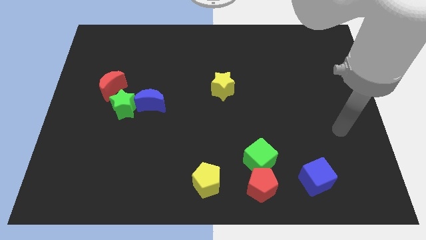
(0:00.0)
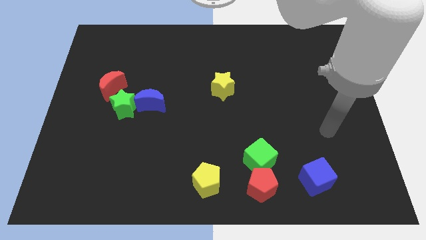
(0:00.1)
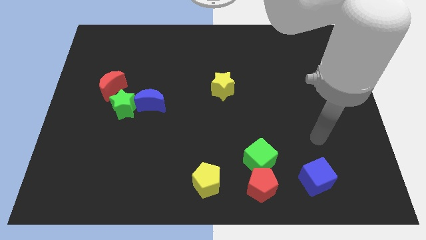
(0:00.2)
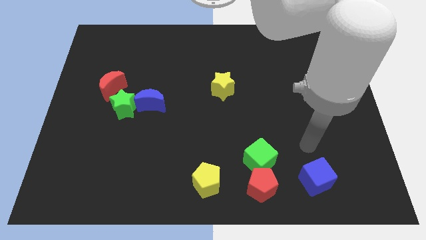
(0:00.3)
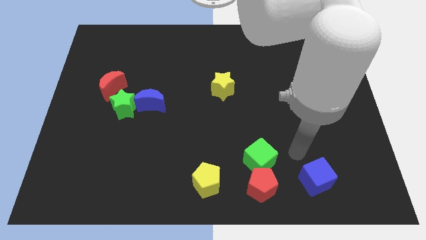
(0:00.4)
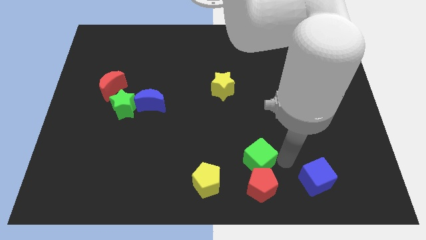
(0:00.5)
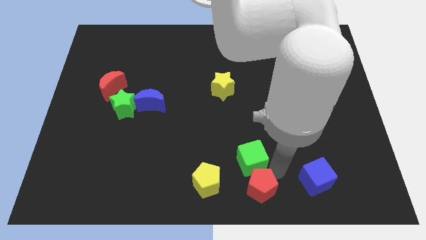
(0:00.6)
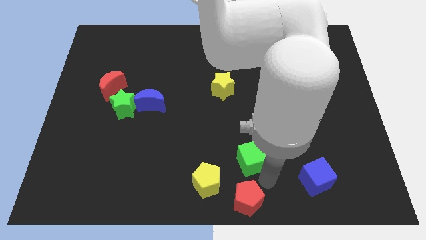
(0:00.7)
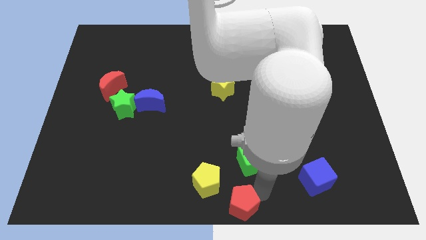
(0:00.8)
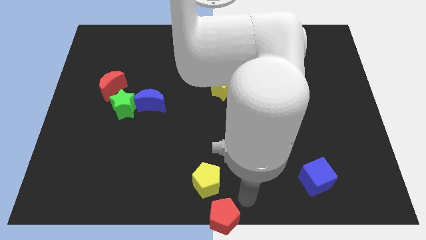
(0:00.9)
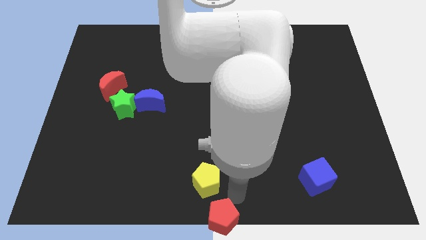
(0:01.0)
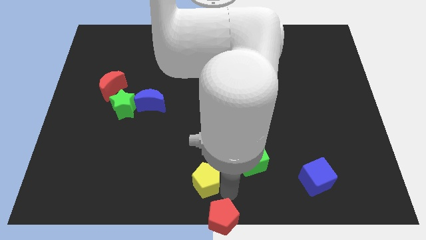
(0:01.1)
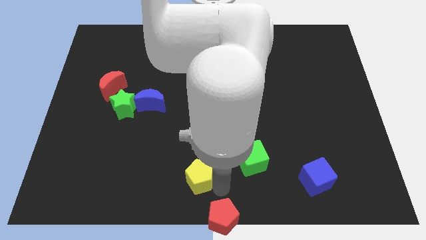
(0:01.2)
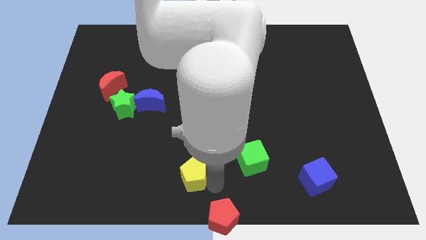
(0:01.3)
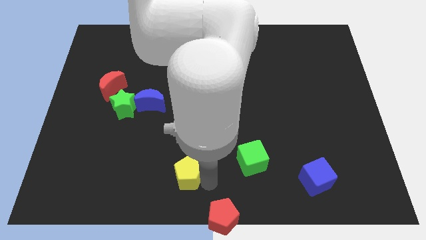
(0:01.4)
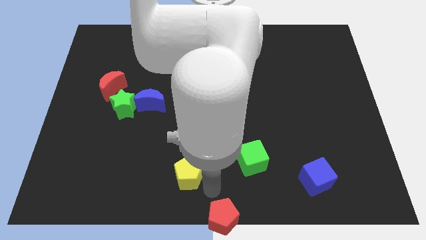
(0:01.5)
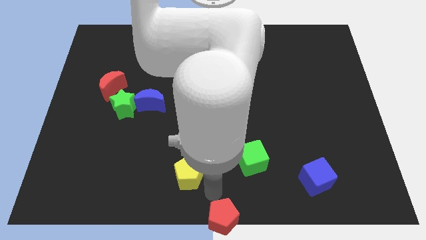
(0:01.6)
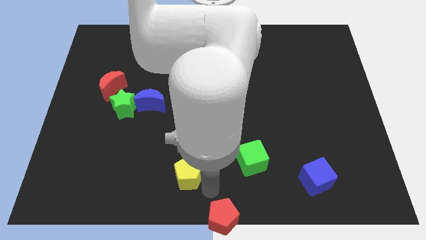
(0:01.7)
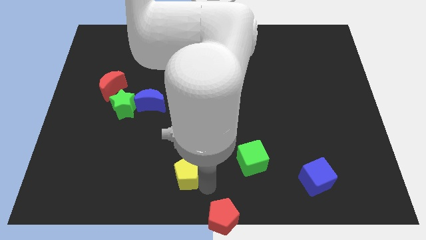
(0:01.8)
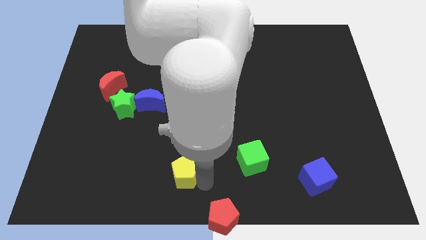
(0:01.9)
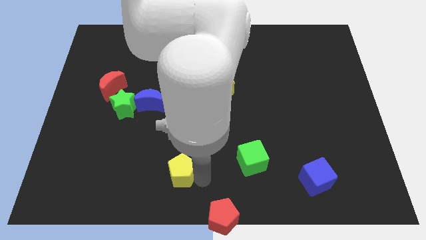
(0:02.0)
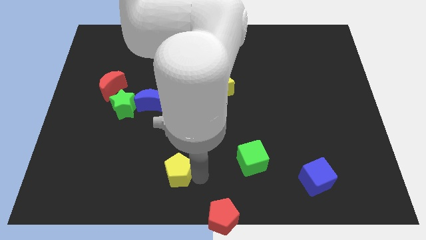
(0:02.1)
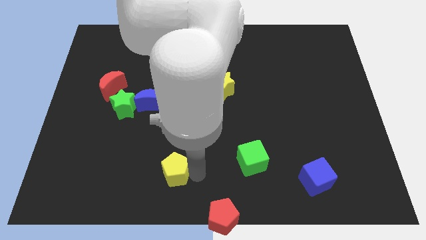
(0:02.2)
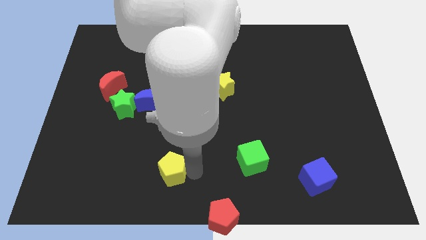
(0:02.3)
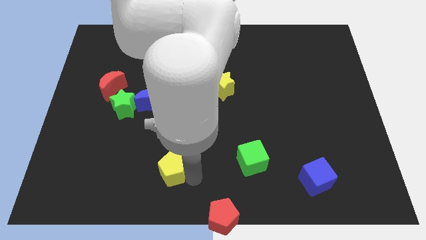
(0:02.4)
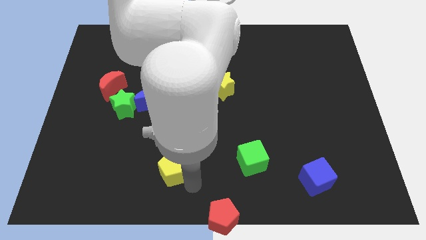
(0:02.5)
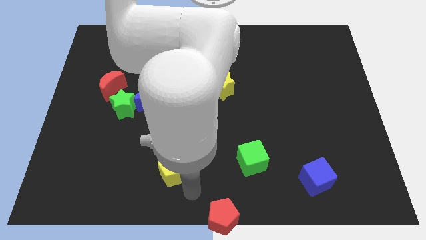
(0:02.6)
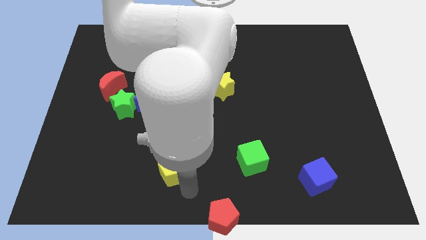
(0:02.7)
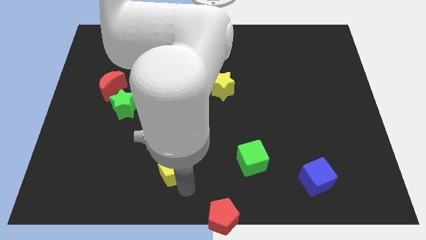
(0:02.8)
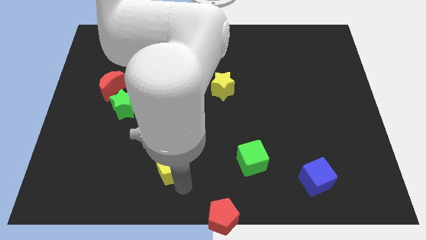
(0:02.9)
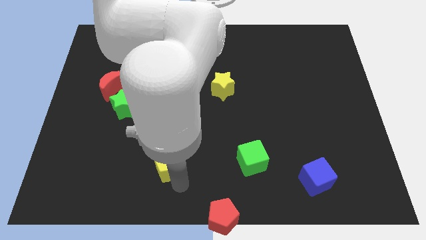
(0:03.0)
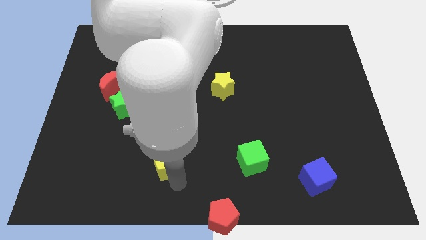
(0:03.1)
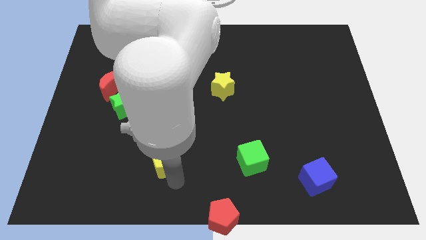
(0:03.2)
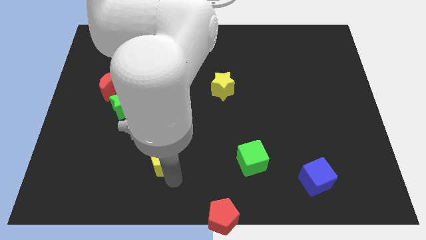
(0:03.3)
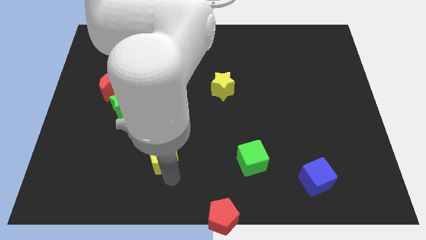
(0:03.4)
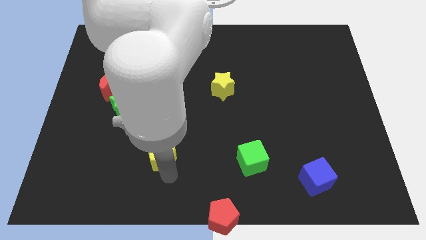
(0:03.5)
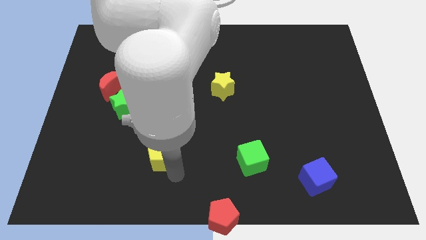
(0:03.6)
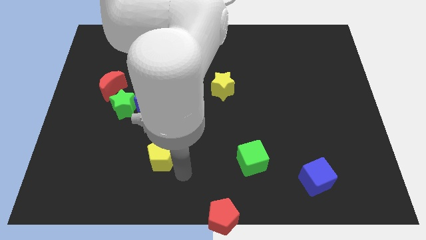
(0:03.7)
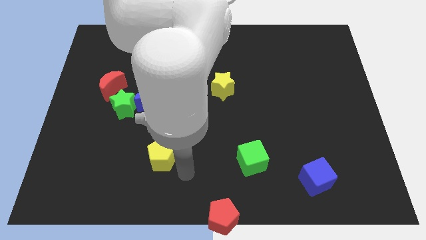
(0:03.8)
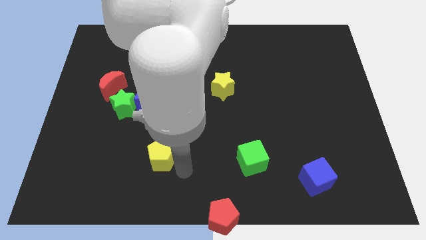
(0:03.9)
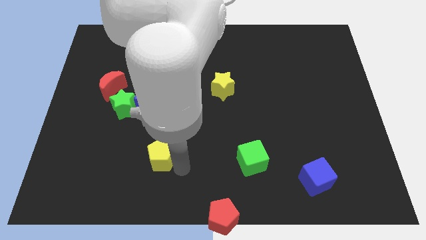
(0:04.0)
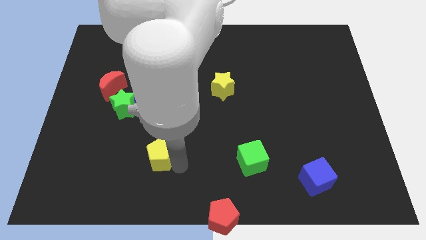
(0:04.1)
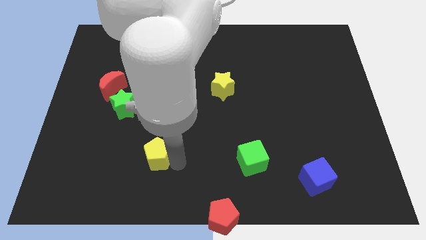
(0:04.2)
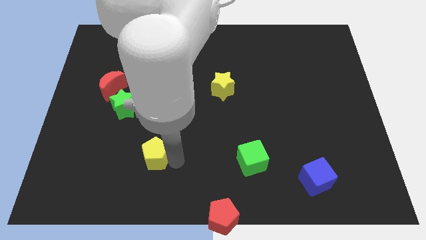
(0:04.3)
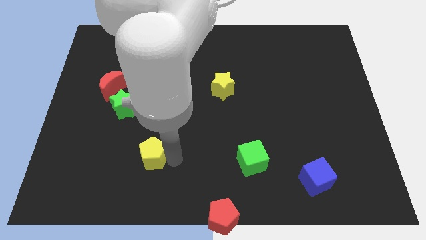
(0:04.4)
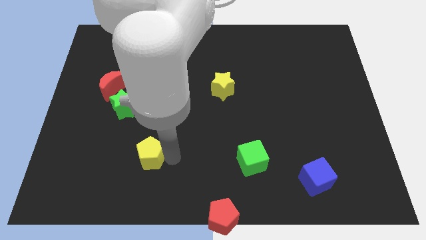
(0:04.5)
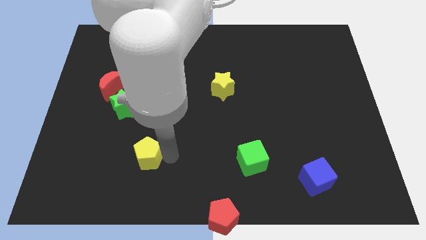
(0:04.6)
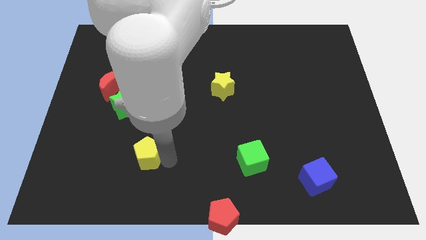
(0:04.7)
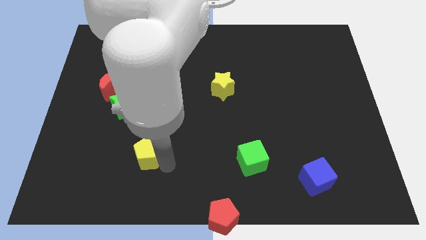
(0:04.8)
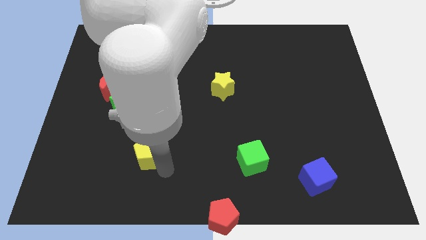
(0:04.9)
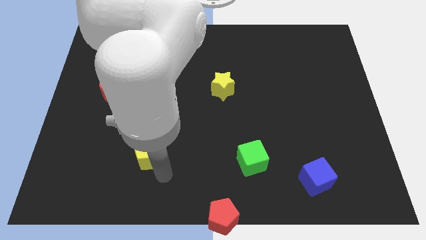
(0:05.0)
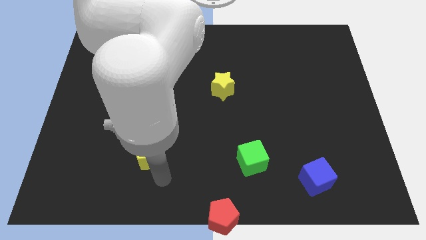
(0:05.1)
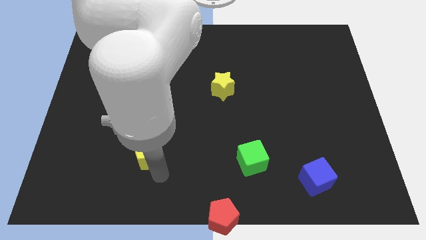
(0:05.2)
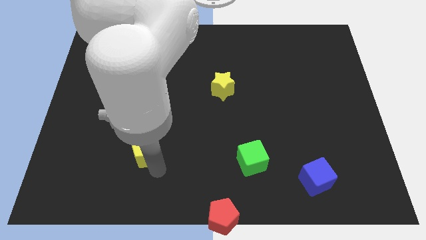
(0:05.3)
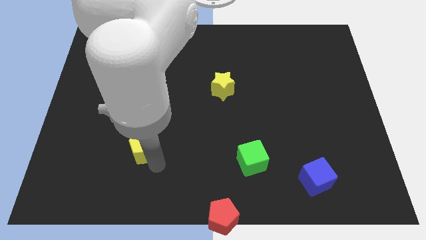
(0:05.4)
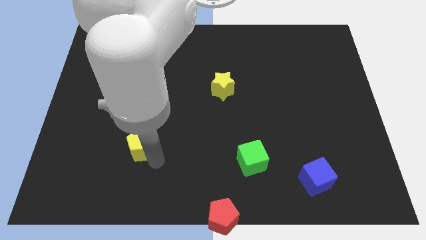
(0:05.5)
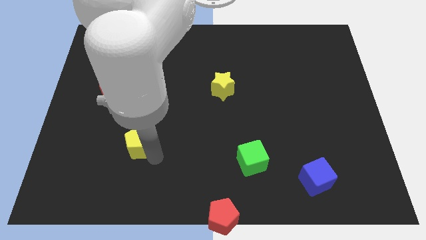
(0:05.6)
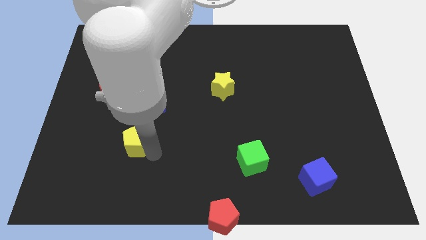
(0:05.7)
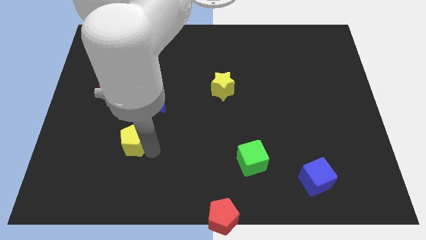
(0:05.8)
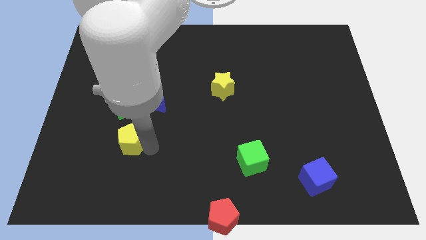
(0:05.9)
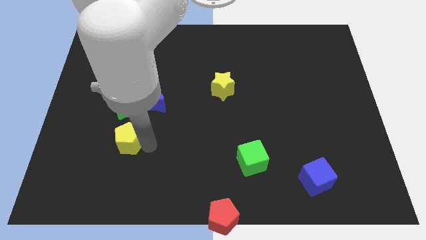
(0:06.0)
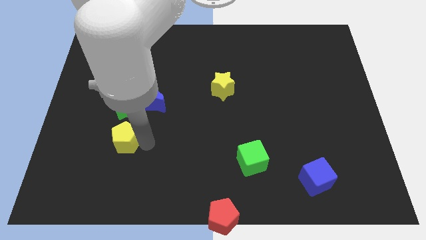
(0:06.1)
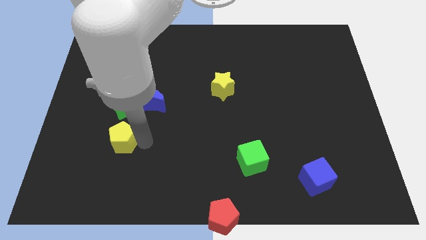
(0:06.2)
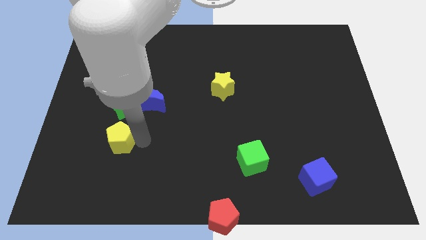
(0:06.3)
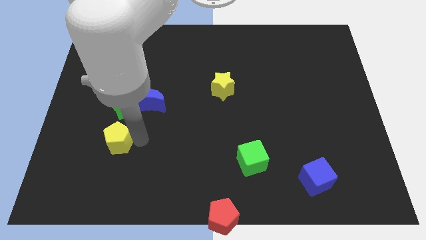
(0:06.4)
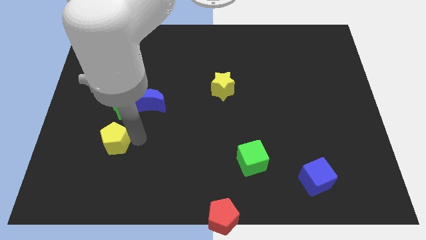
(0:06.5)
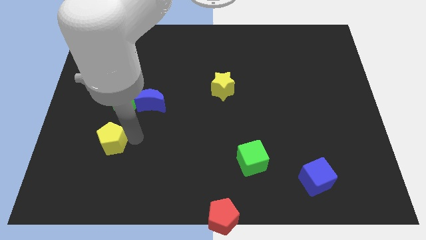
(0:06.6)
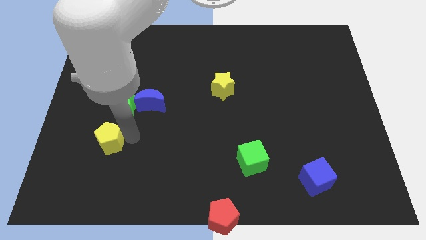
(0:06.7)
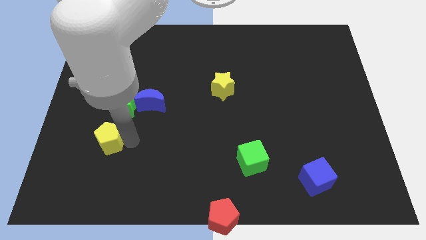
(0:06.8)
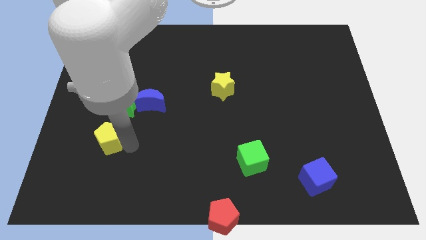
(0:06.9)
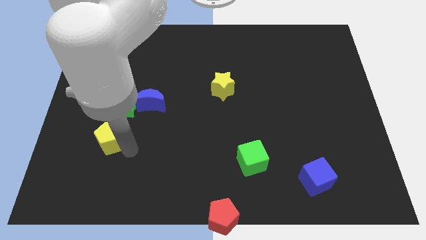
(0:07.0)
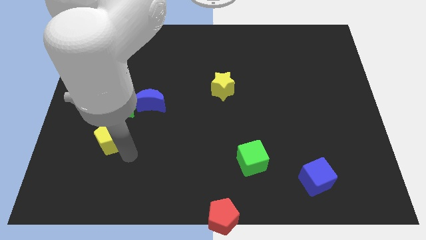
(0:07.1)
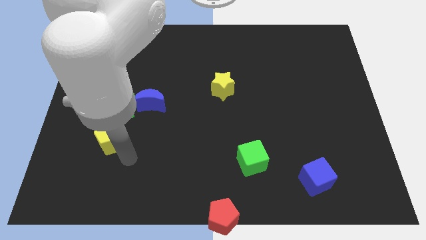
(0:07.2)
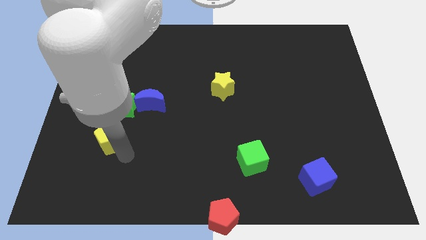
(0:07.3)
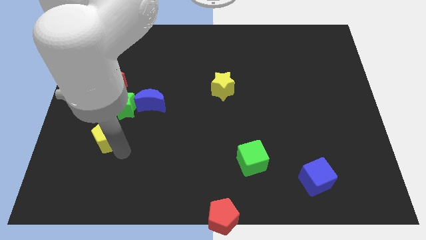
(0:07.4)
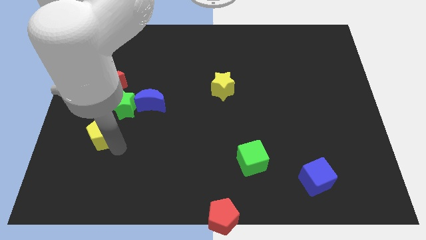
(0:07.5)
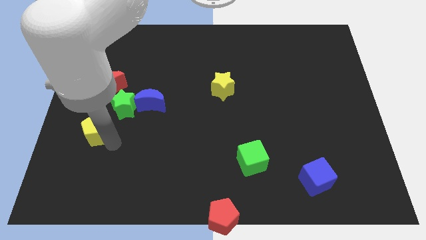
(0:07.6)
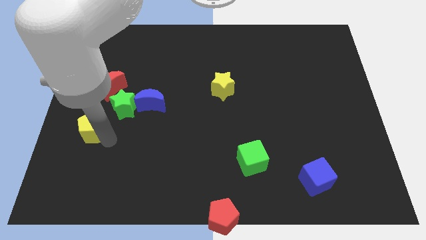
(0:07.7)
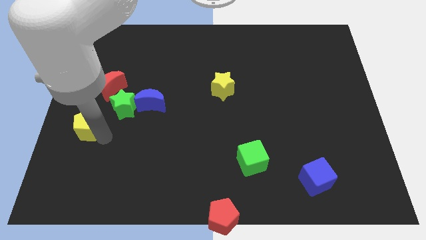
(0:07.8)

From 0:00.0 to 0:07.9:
slide the yellow pentagon to the left side
